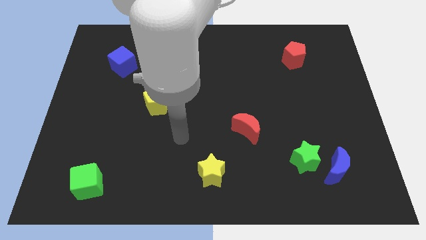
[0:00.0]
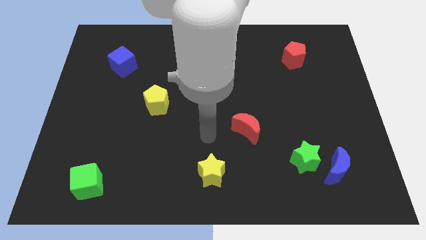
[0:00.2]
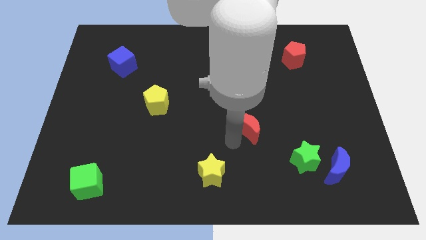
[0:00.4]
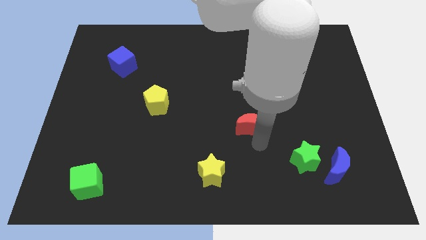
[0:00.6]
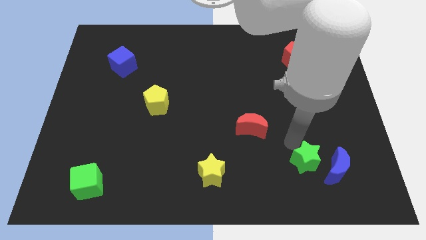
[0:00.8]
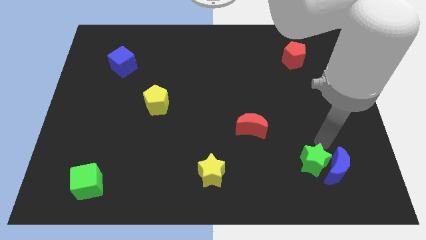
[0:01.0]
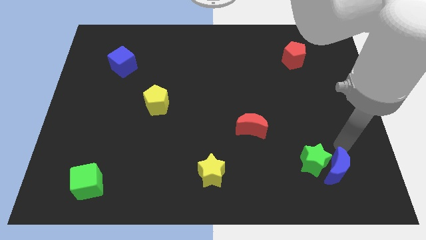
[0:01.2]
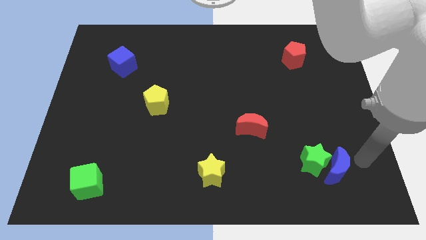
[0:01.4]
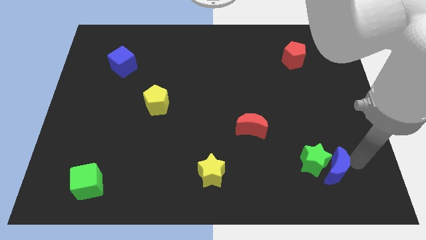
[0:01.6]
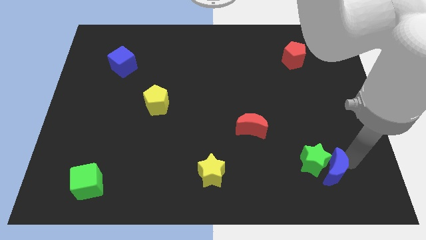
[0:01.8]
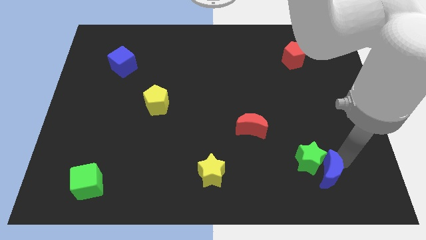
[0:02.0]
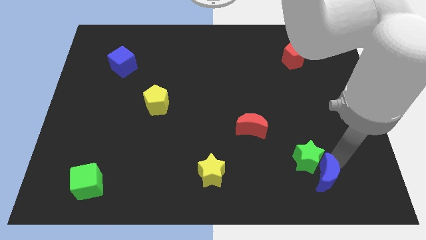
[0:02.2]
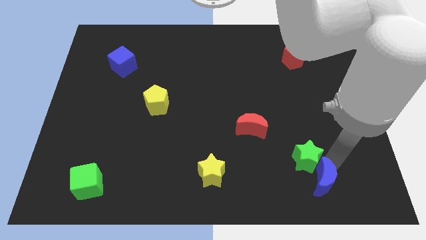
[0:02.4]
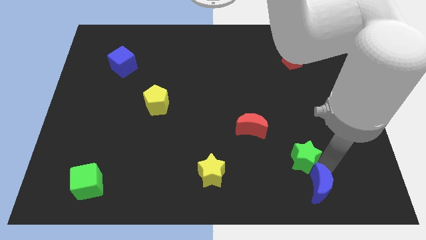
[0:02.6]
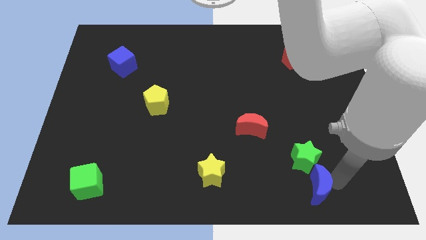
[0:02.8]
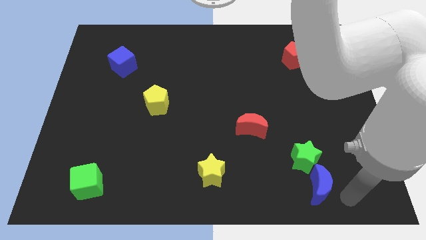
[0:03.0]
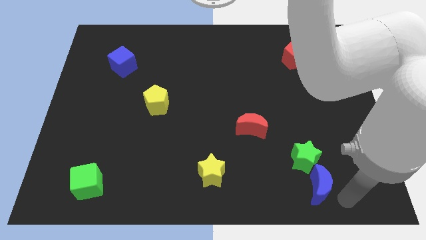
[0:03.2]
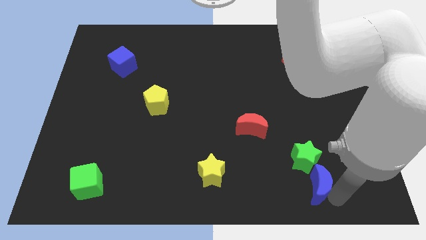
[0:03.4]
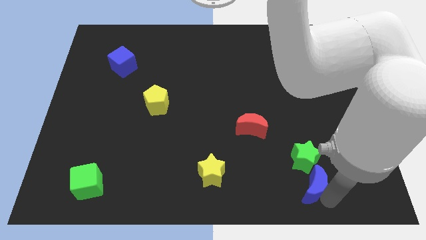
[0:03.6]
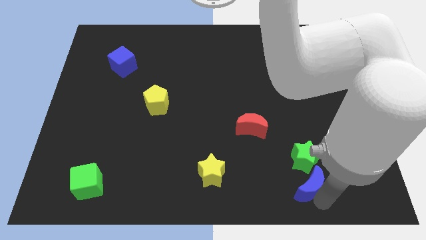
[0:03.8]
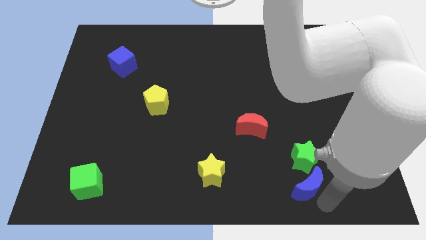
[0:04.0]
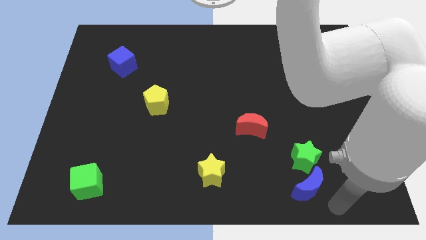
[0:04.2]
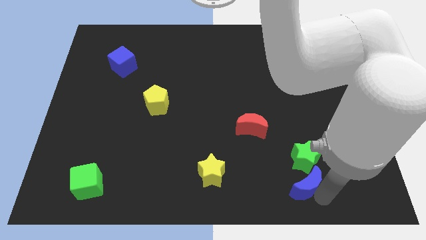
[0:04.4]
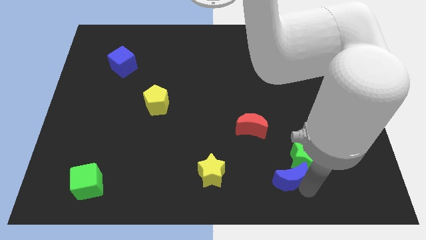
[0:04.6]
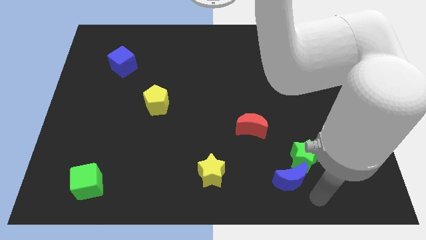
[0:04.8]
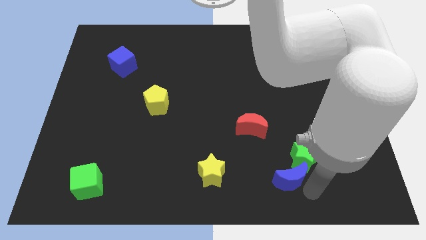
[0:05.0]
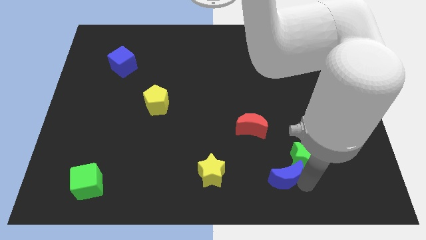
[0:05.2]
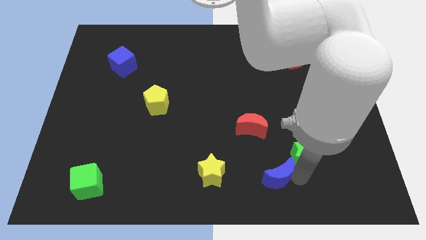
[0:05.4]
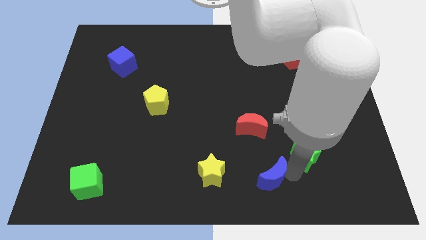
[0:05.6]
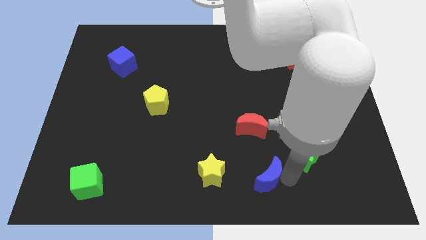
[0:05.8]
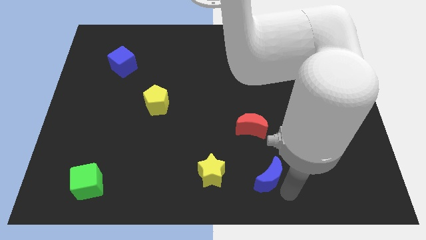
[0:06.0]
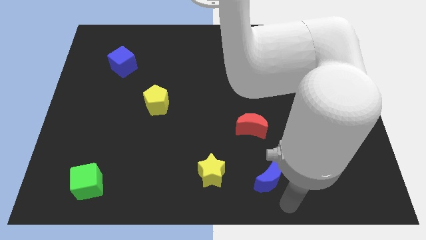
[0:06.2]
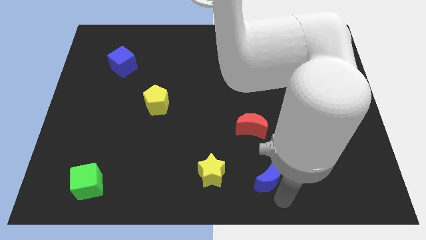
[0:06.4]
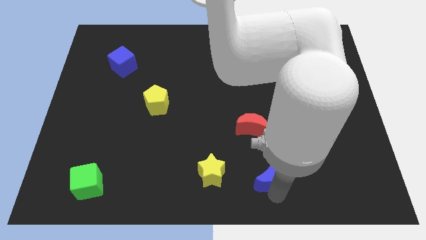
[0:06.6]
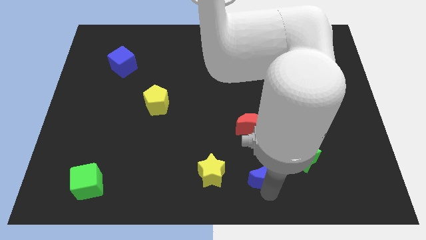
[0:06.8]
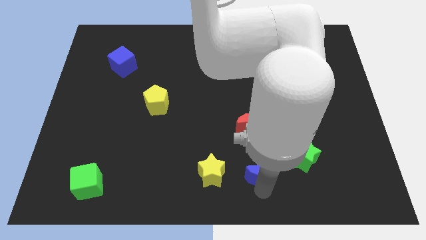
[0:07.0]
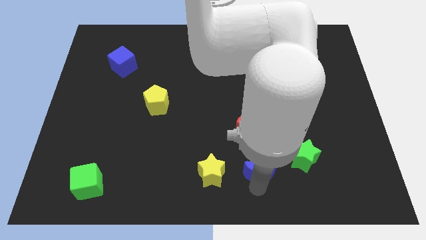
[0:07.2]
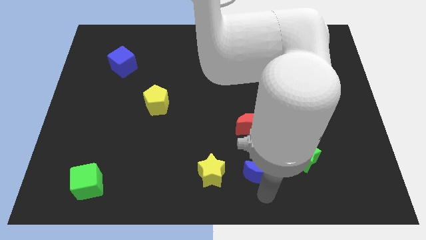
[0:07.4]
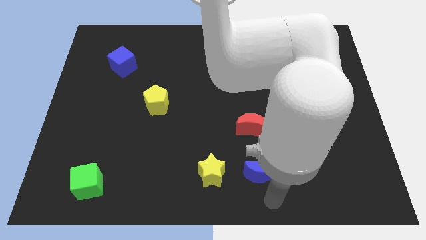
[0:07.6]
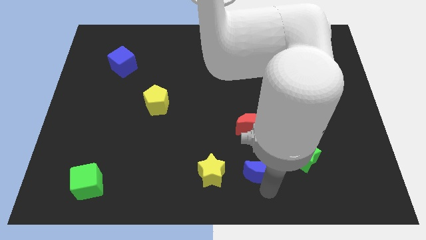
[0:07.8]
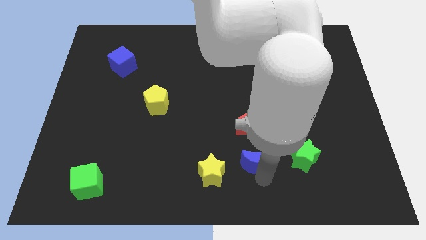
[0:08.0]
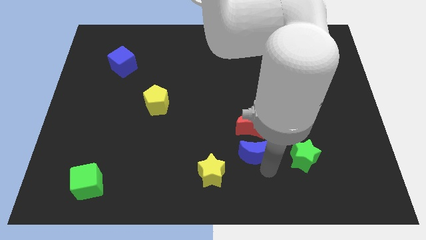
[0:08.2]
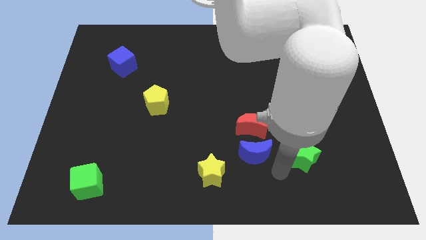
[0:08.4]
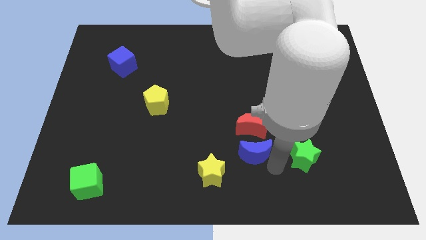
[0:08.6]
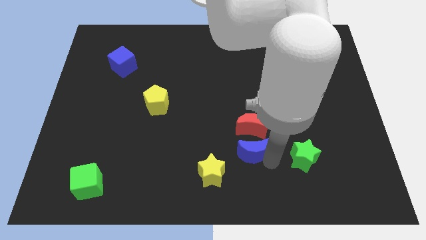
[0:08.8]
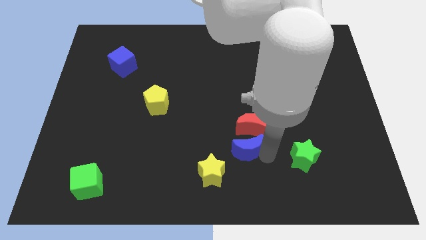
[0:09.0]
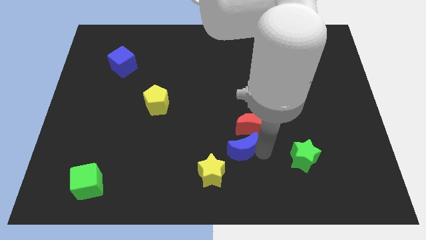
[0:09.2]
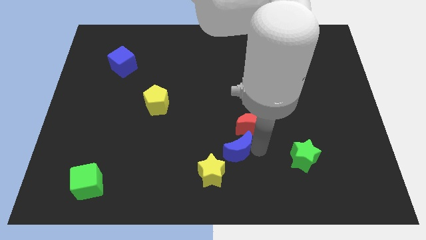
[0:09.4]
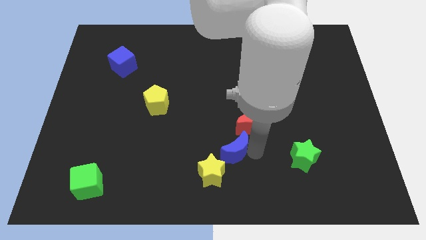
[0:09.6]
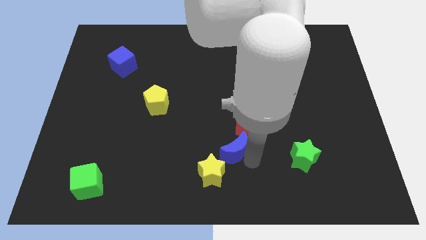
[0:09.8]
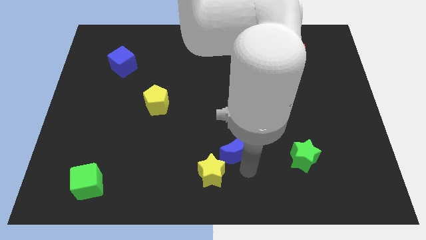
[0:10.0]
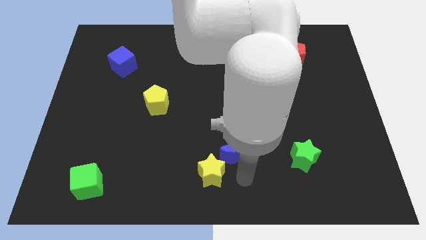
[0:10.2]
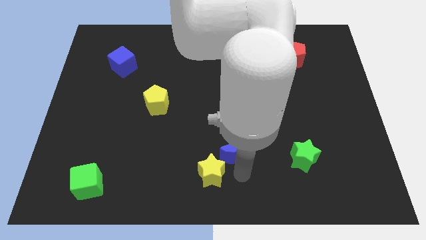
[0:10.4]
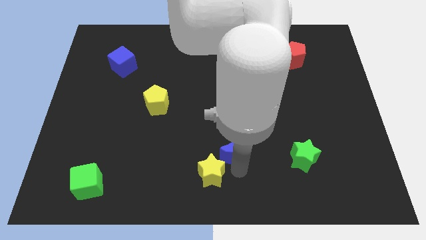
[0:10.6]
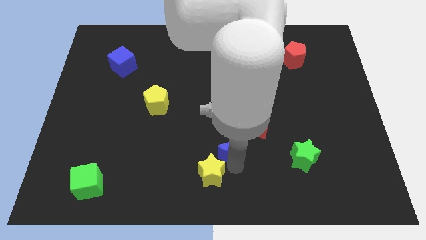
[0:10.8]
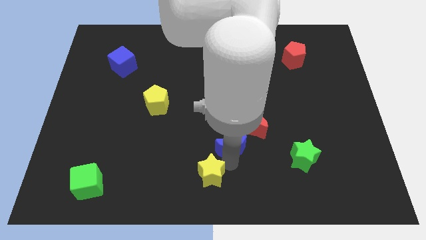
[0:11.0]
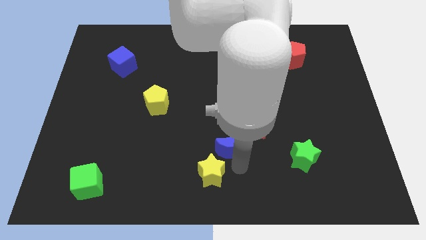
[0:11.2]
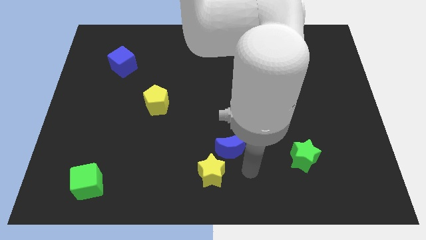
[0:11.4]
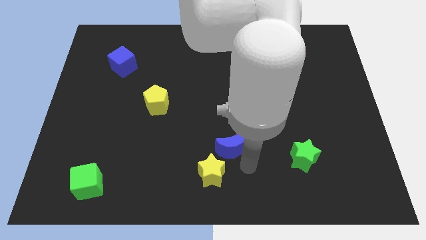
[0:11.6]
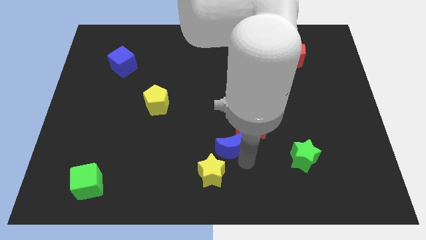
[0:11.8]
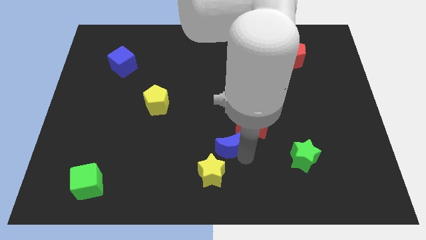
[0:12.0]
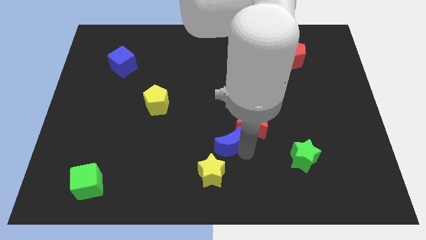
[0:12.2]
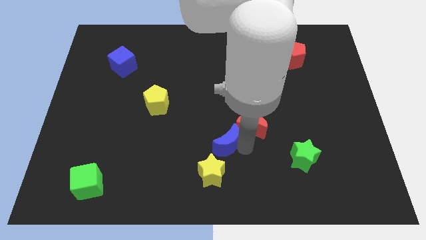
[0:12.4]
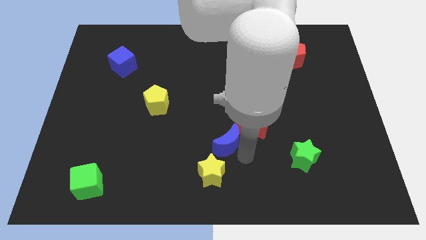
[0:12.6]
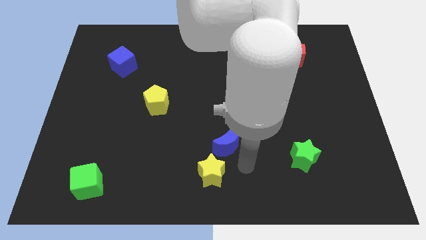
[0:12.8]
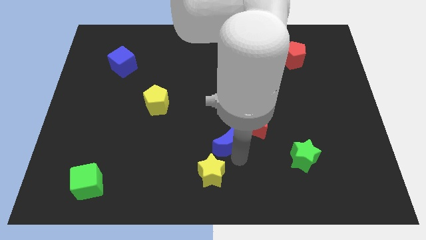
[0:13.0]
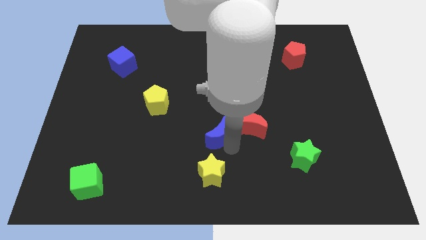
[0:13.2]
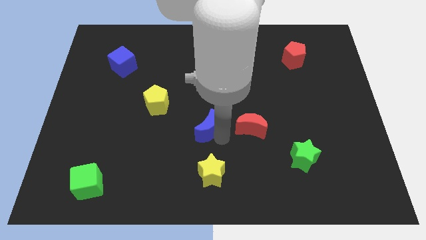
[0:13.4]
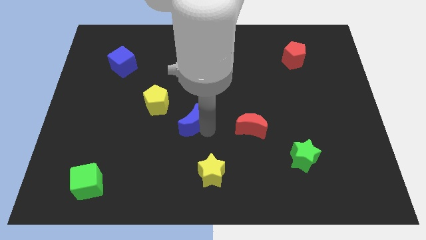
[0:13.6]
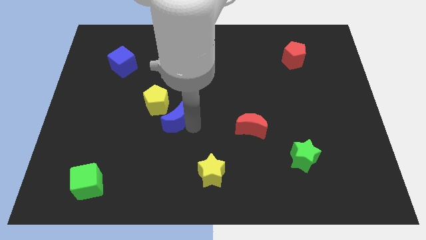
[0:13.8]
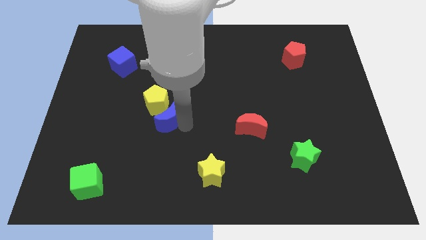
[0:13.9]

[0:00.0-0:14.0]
put the blue moon close to the yellow pentagon

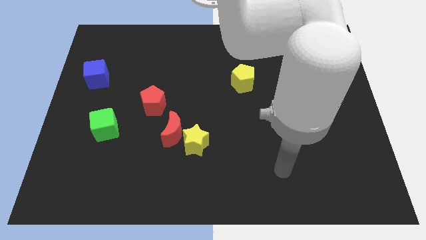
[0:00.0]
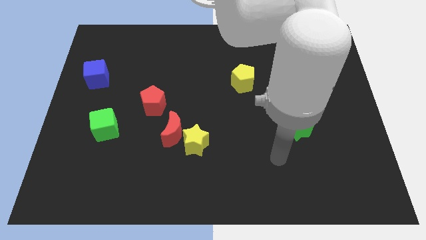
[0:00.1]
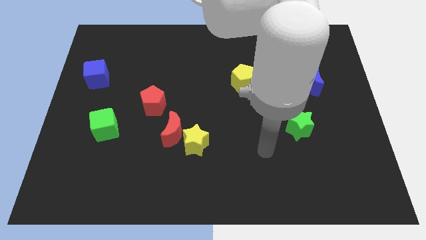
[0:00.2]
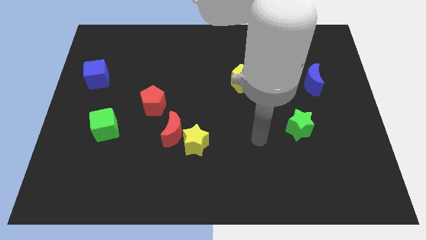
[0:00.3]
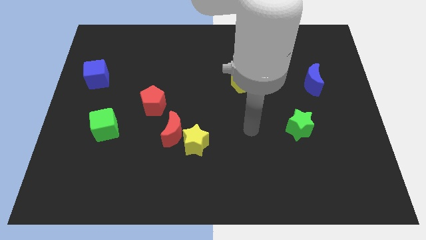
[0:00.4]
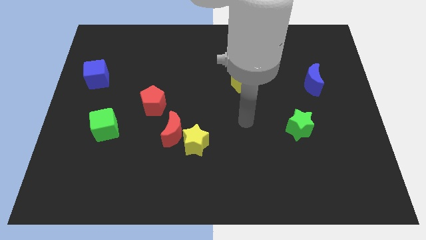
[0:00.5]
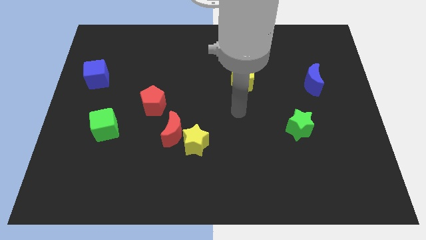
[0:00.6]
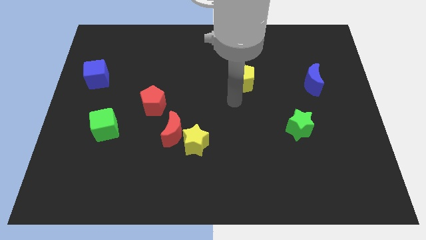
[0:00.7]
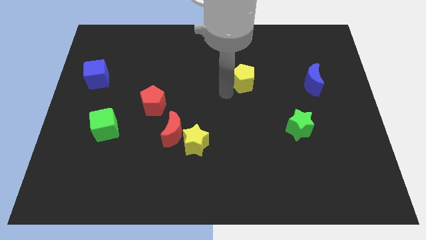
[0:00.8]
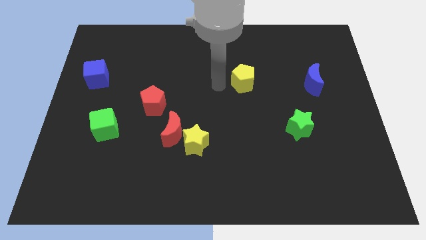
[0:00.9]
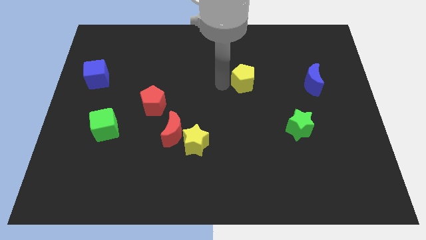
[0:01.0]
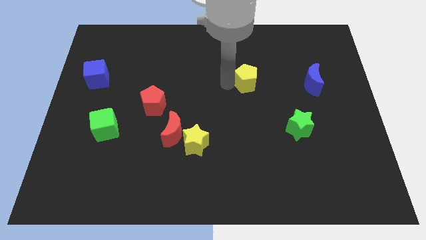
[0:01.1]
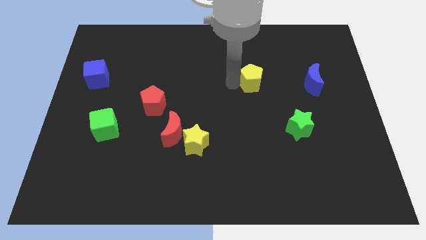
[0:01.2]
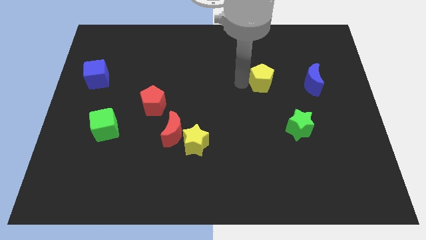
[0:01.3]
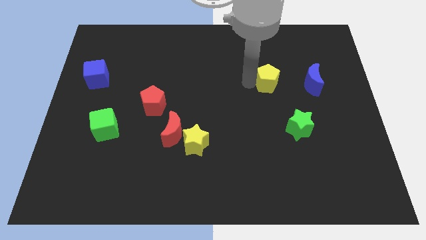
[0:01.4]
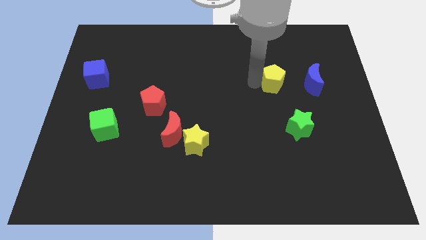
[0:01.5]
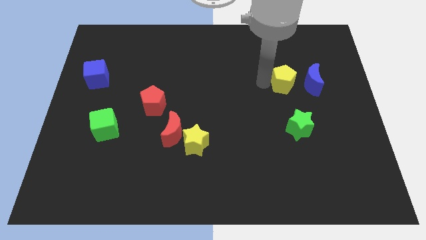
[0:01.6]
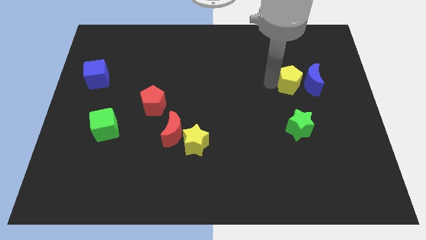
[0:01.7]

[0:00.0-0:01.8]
move the yellow pentagon next to the blue moon
